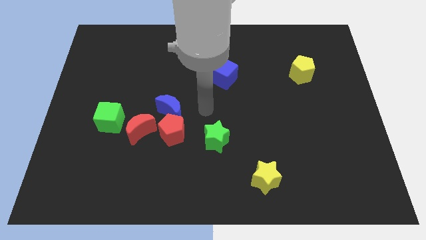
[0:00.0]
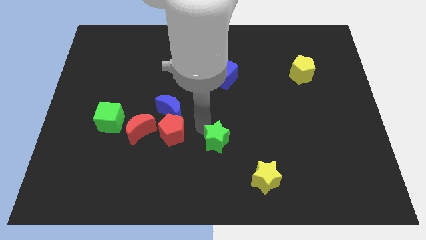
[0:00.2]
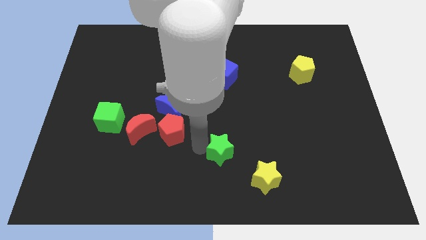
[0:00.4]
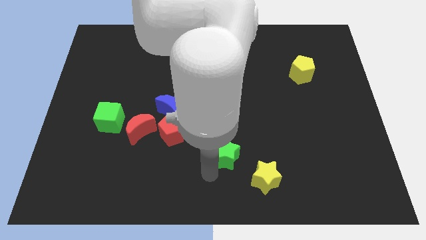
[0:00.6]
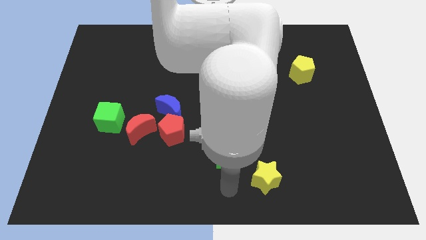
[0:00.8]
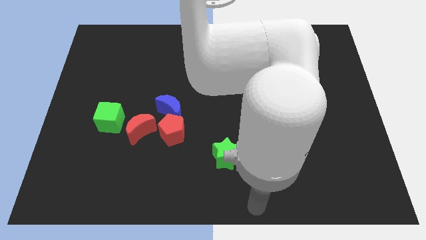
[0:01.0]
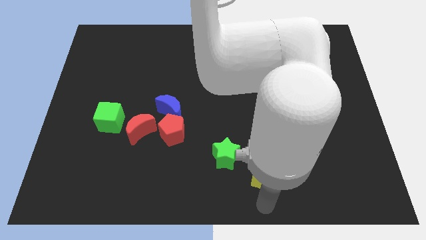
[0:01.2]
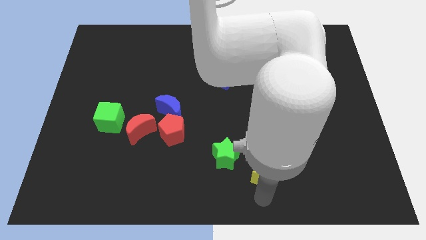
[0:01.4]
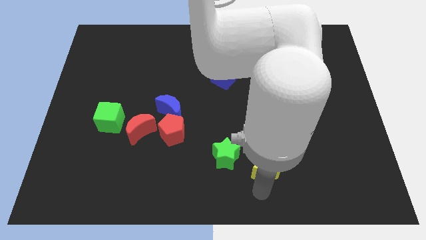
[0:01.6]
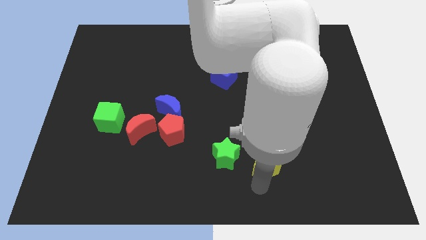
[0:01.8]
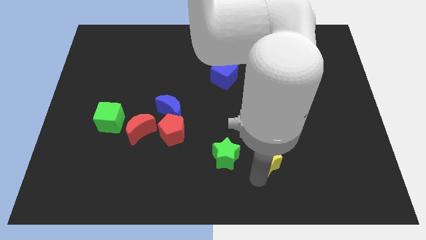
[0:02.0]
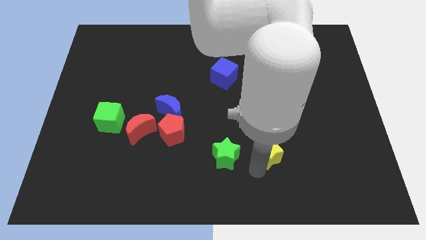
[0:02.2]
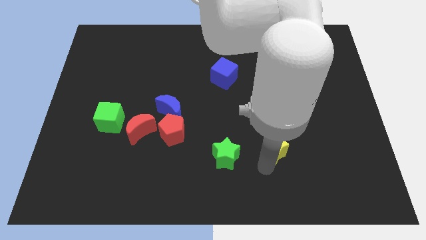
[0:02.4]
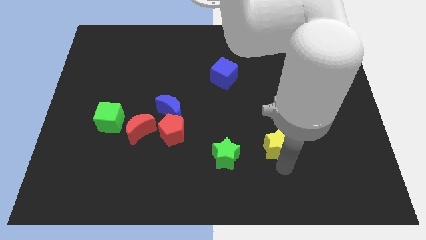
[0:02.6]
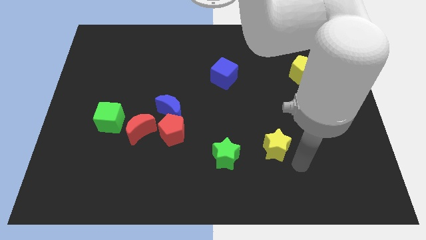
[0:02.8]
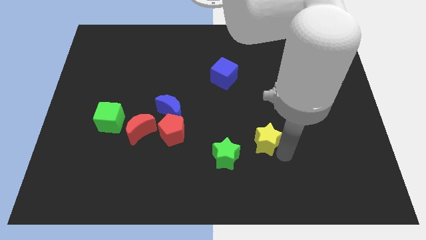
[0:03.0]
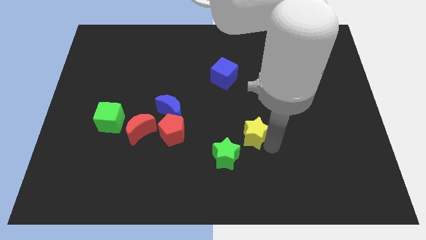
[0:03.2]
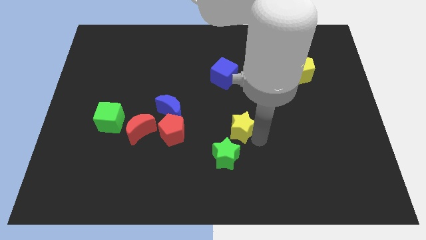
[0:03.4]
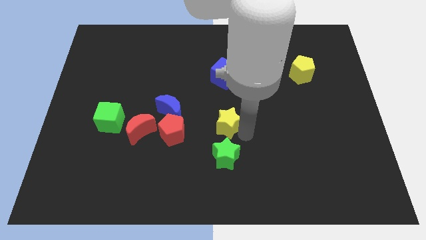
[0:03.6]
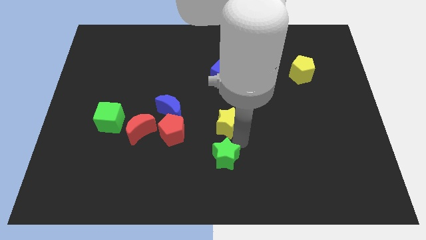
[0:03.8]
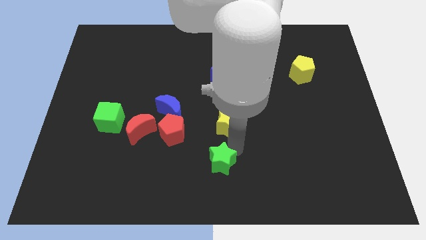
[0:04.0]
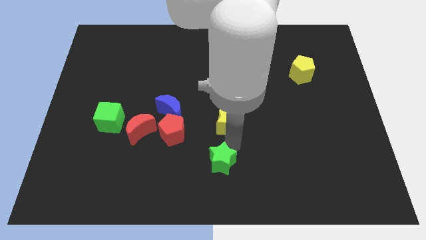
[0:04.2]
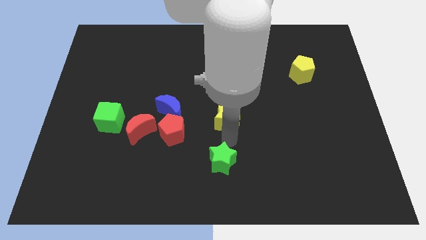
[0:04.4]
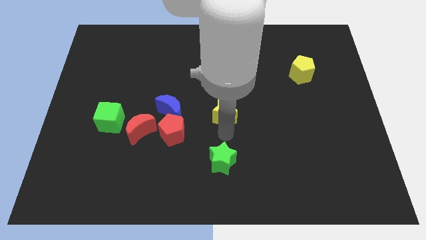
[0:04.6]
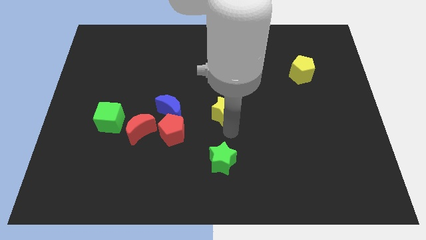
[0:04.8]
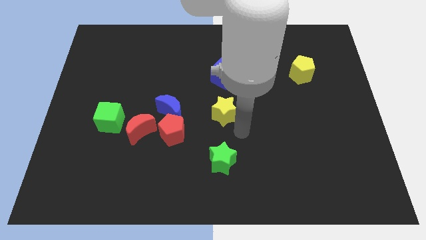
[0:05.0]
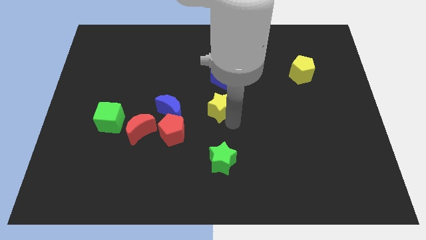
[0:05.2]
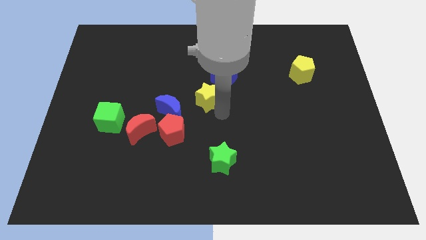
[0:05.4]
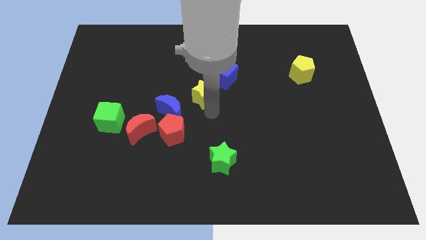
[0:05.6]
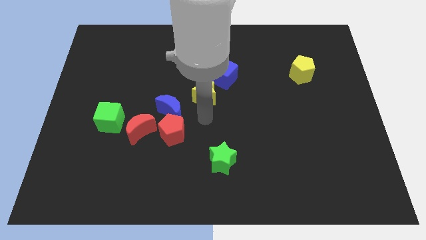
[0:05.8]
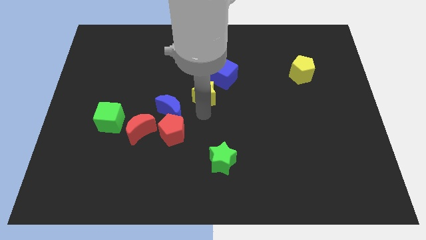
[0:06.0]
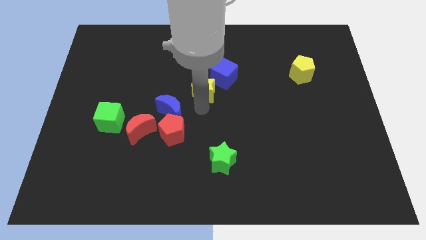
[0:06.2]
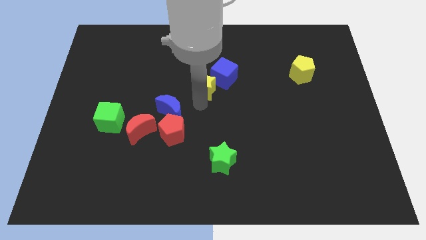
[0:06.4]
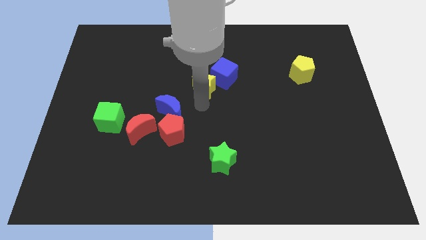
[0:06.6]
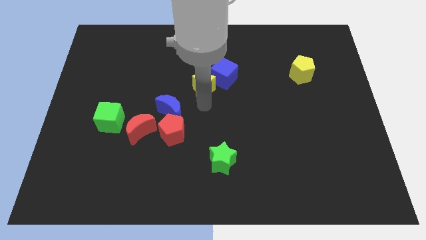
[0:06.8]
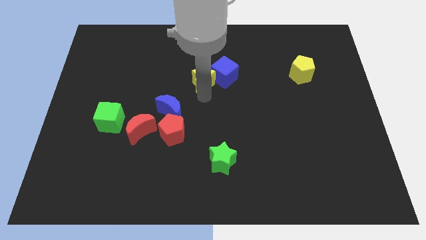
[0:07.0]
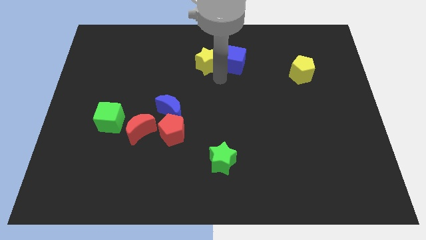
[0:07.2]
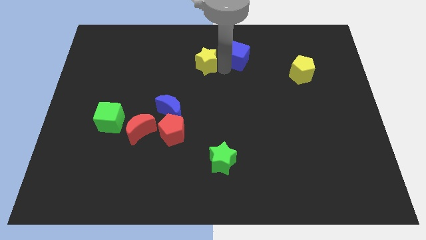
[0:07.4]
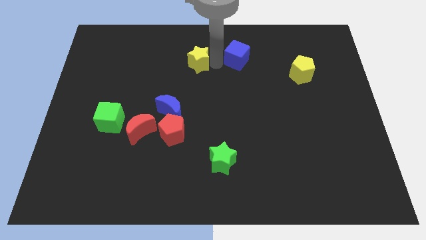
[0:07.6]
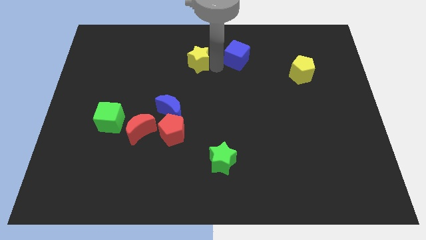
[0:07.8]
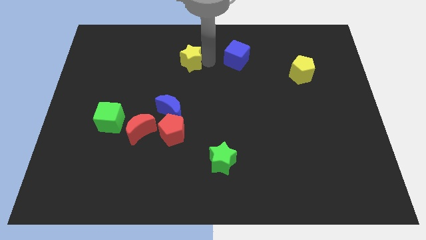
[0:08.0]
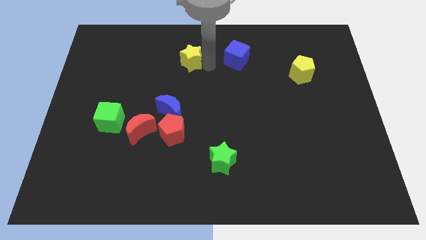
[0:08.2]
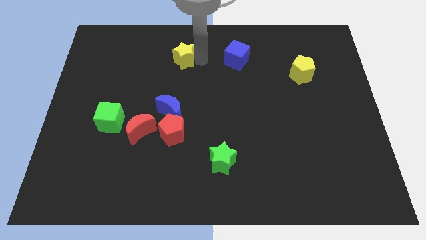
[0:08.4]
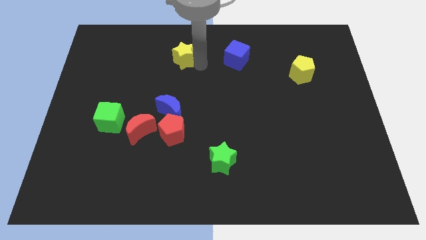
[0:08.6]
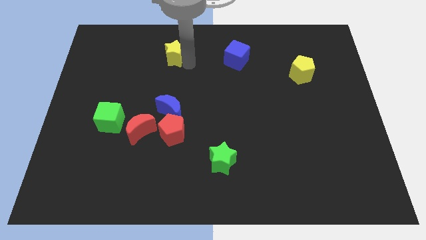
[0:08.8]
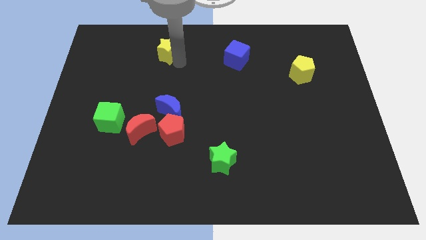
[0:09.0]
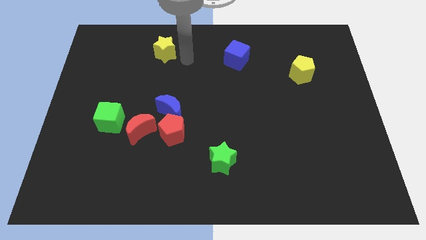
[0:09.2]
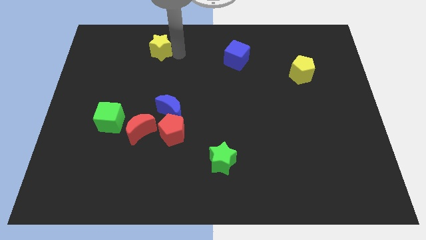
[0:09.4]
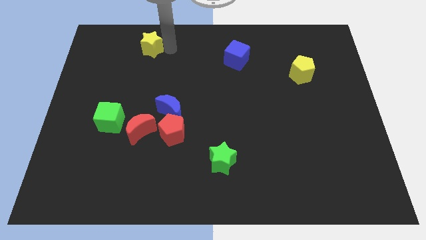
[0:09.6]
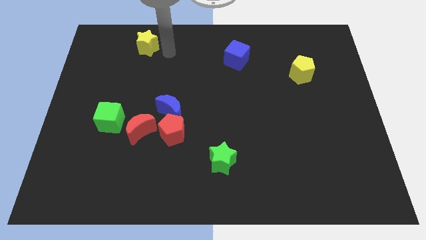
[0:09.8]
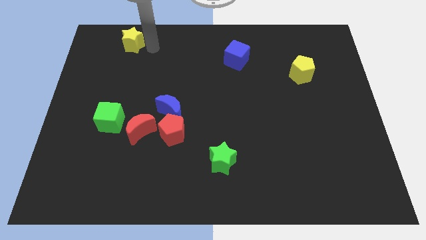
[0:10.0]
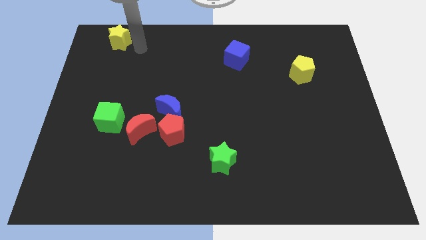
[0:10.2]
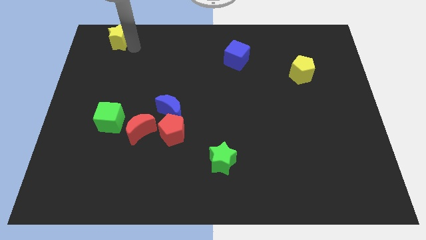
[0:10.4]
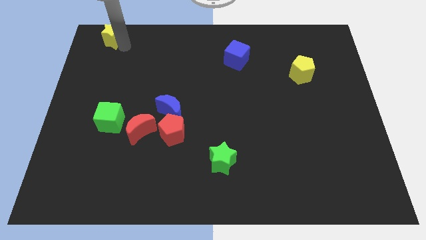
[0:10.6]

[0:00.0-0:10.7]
push the yellow star to the upper left corner
